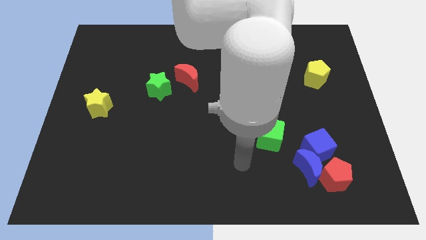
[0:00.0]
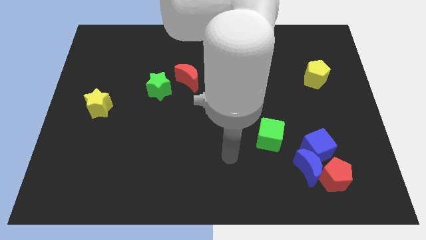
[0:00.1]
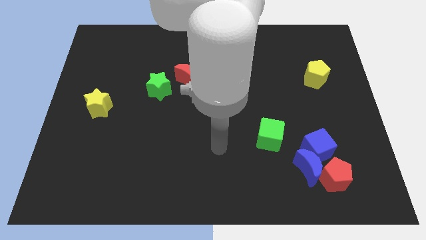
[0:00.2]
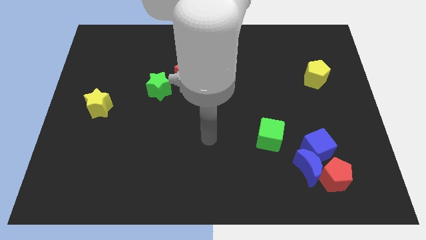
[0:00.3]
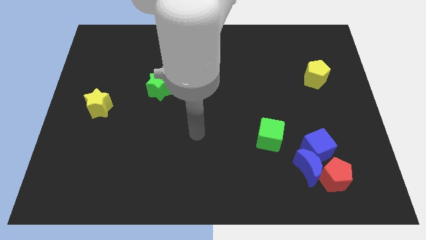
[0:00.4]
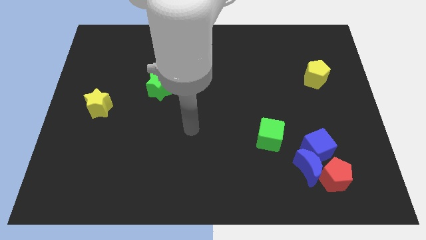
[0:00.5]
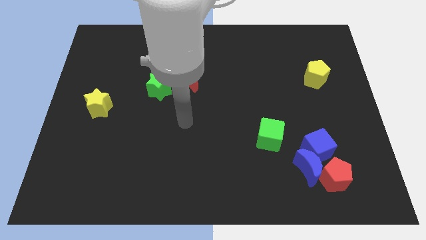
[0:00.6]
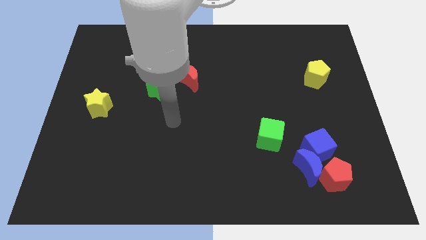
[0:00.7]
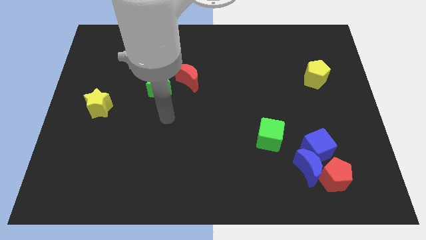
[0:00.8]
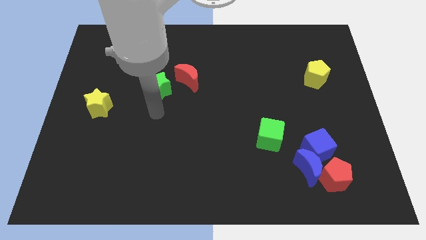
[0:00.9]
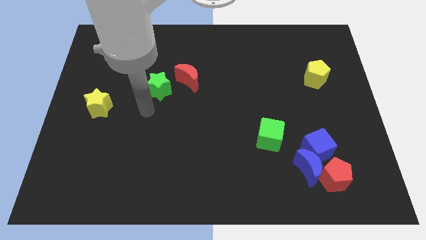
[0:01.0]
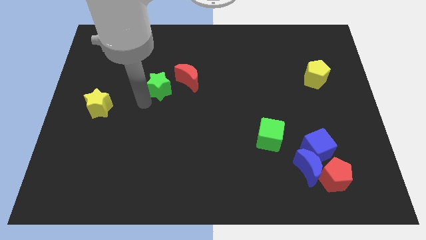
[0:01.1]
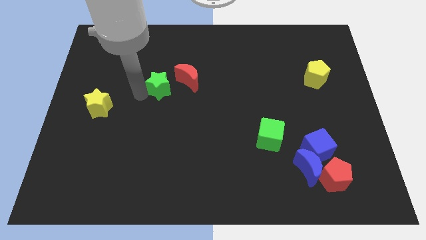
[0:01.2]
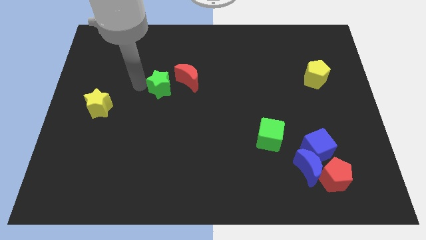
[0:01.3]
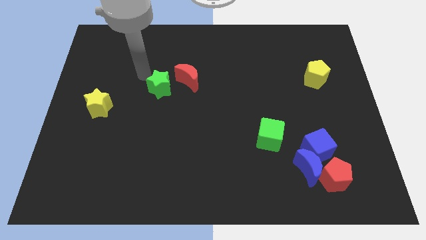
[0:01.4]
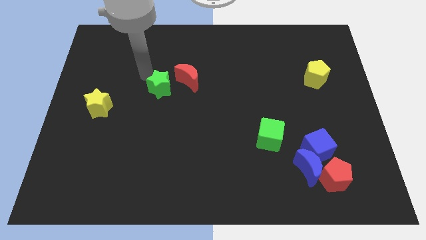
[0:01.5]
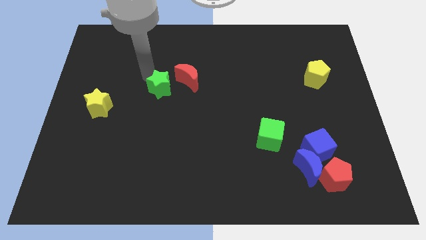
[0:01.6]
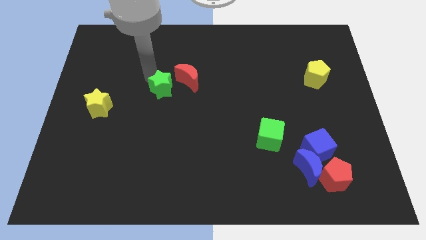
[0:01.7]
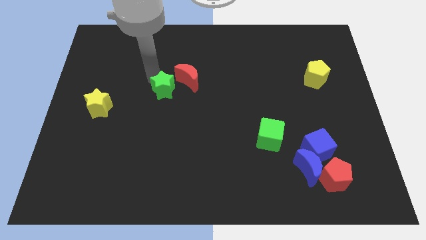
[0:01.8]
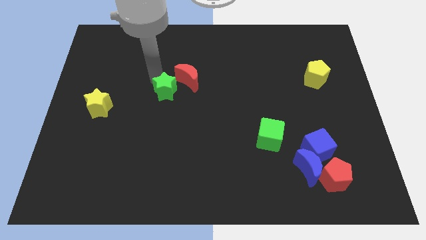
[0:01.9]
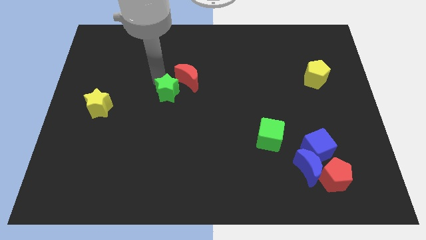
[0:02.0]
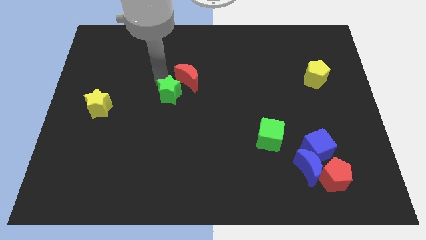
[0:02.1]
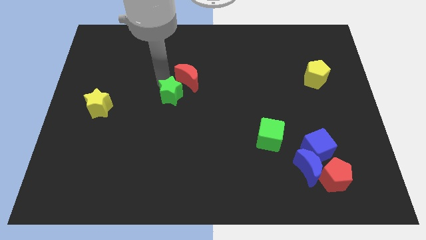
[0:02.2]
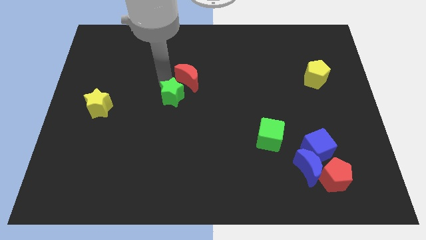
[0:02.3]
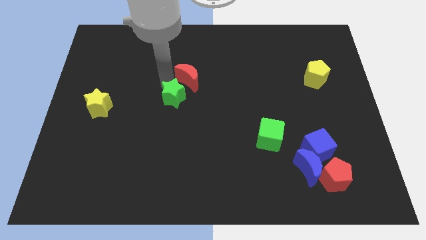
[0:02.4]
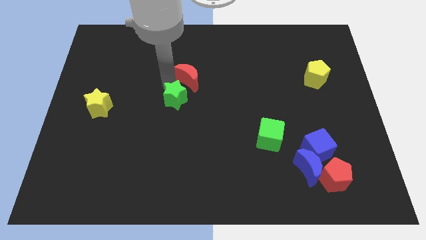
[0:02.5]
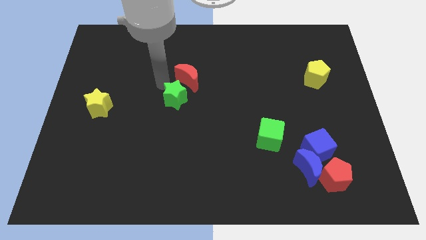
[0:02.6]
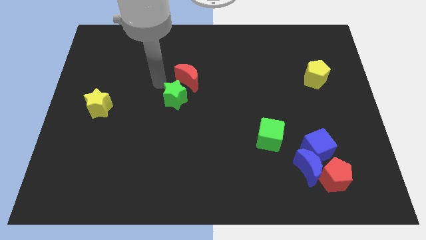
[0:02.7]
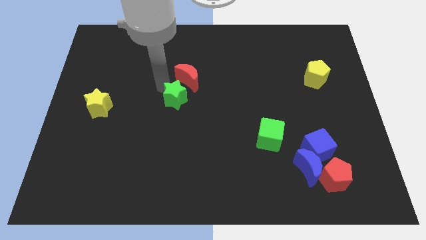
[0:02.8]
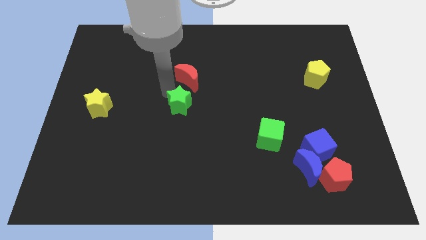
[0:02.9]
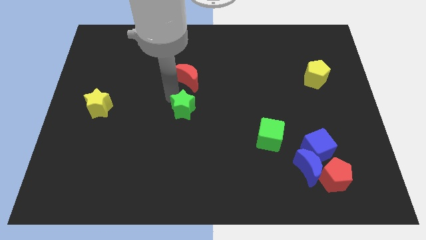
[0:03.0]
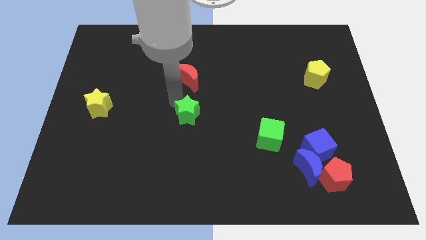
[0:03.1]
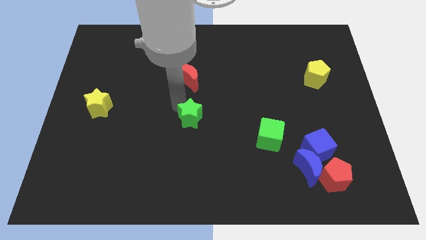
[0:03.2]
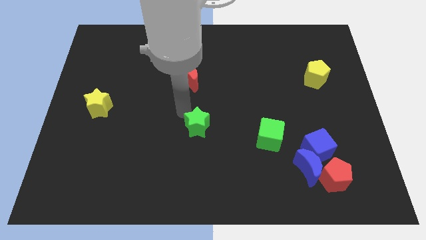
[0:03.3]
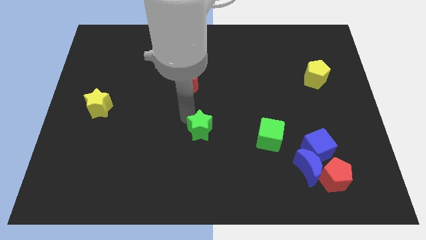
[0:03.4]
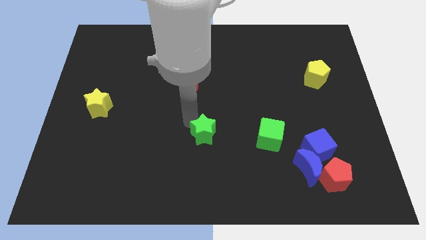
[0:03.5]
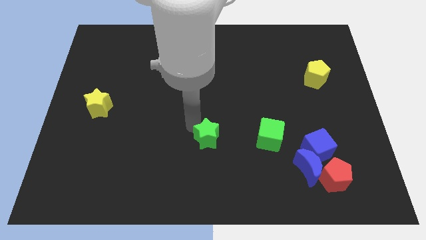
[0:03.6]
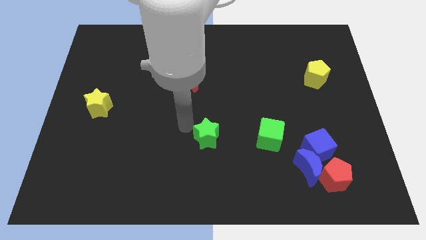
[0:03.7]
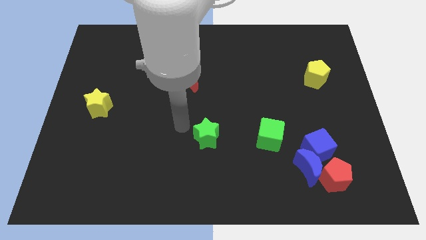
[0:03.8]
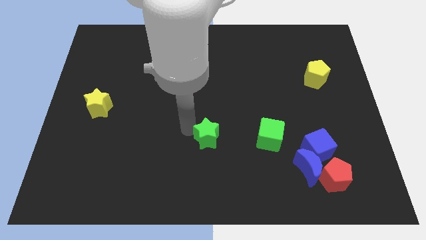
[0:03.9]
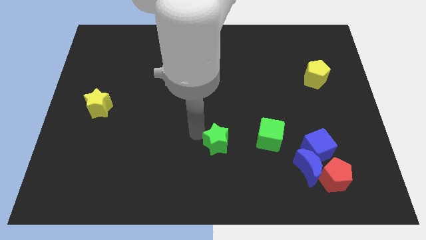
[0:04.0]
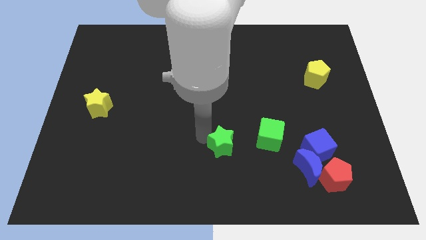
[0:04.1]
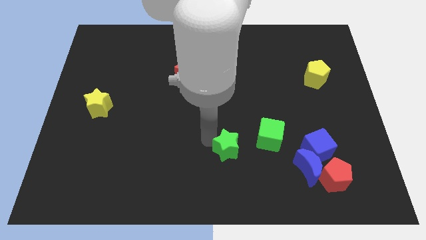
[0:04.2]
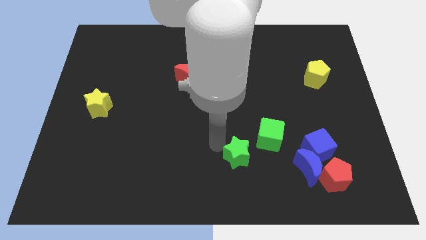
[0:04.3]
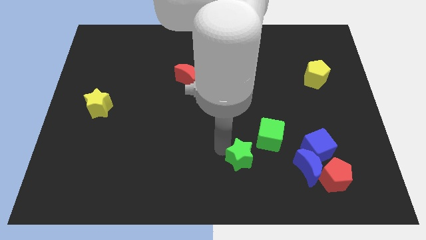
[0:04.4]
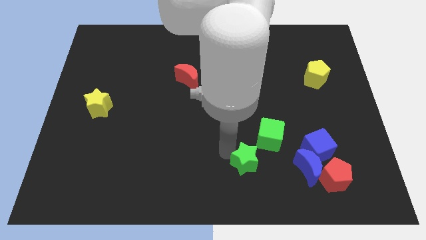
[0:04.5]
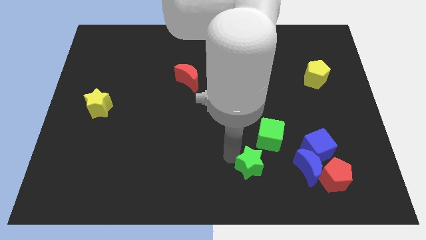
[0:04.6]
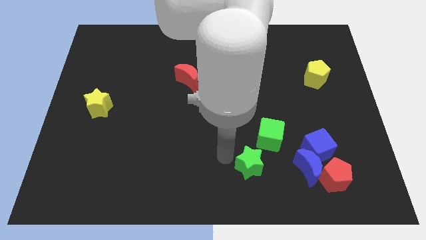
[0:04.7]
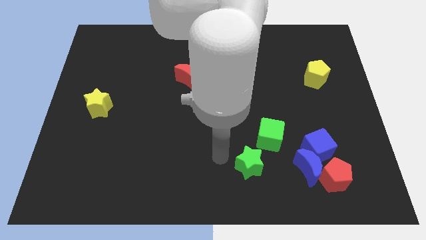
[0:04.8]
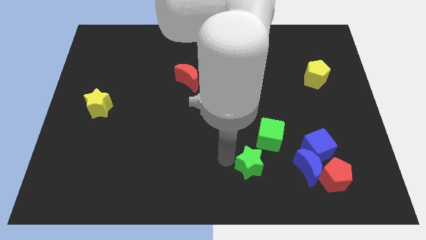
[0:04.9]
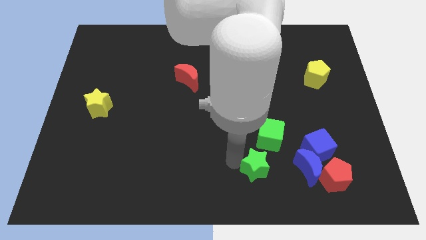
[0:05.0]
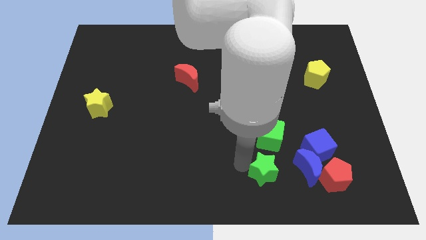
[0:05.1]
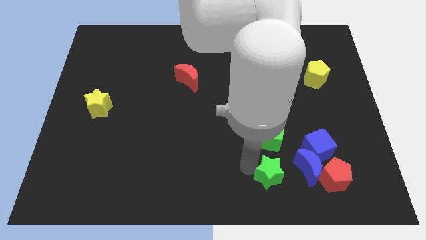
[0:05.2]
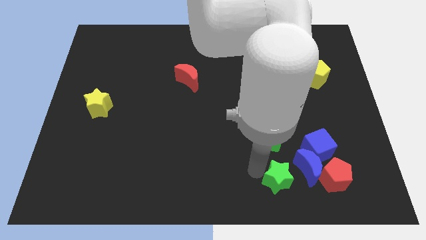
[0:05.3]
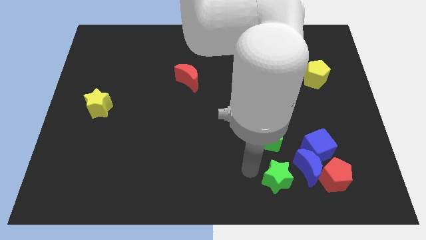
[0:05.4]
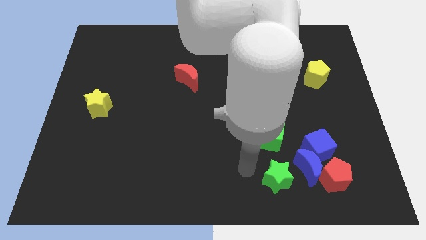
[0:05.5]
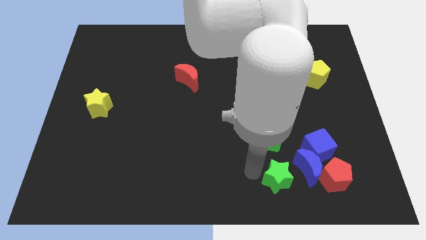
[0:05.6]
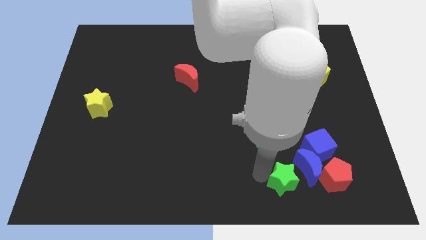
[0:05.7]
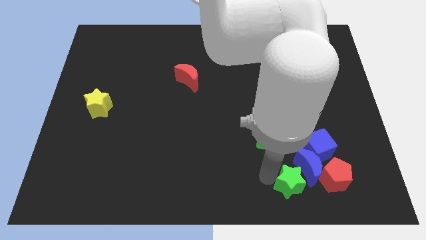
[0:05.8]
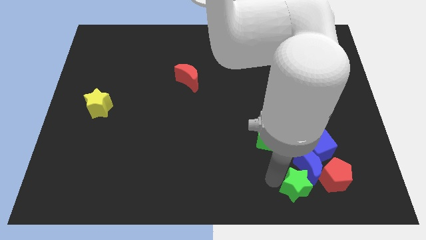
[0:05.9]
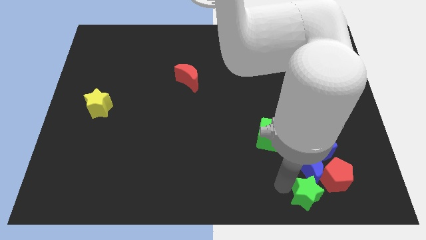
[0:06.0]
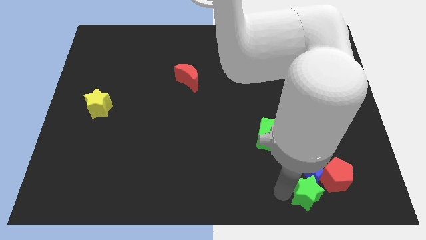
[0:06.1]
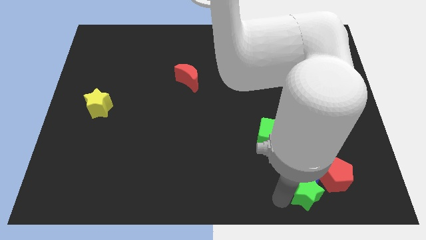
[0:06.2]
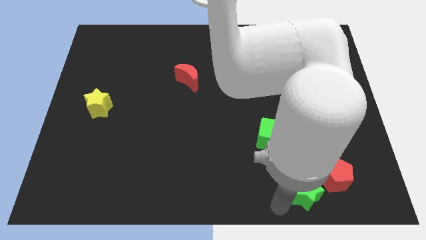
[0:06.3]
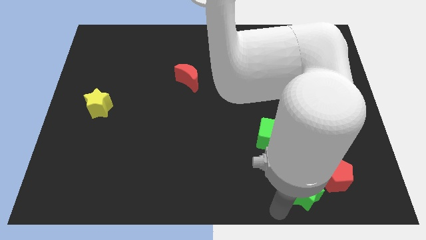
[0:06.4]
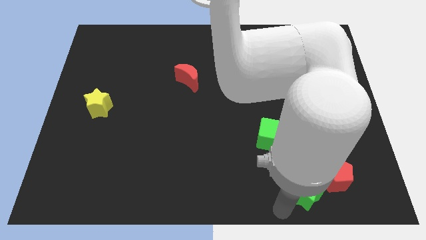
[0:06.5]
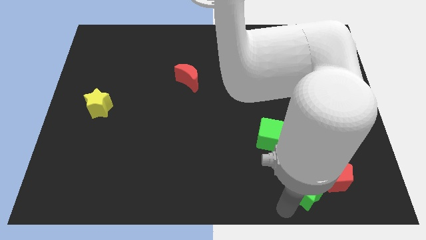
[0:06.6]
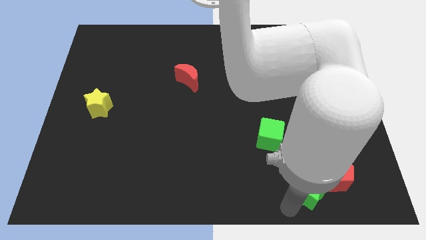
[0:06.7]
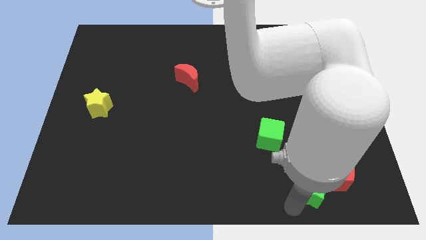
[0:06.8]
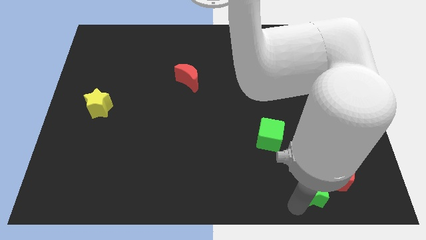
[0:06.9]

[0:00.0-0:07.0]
move the green star next to the red pentagon
